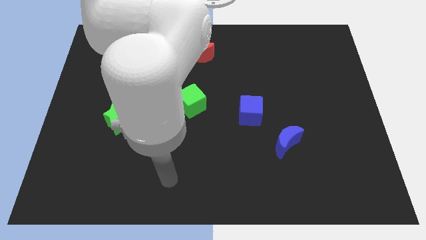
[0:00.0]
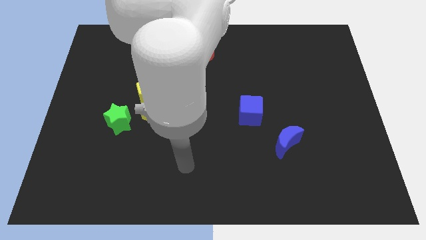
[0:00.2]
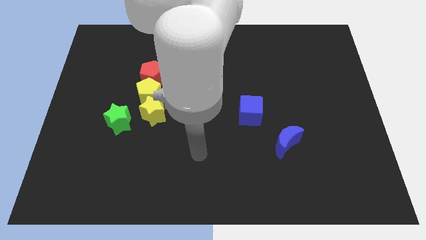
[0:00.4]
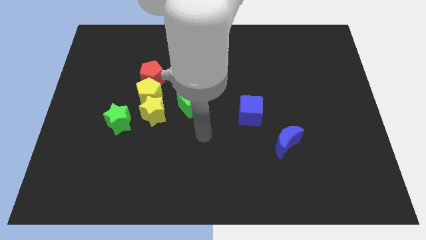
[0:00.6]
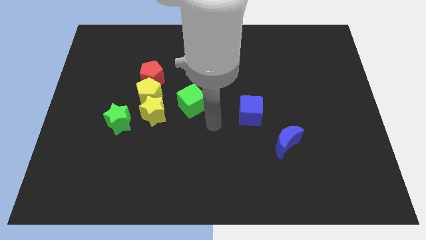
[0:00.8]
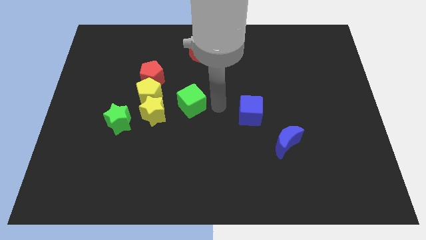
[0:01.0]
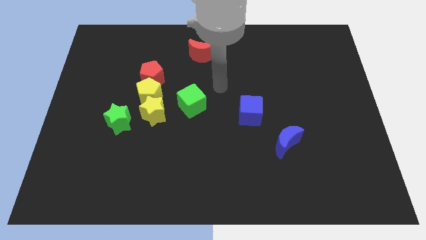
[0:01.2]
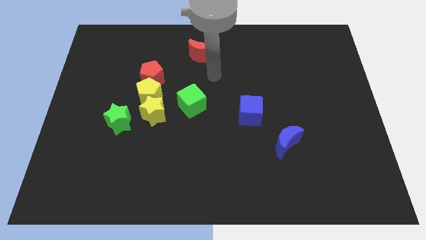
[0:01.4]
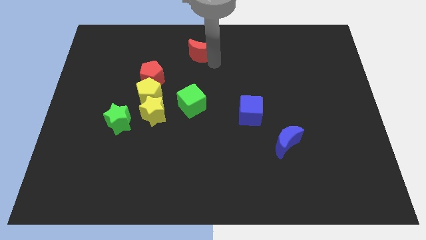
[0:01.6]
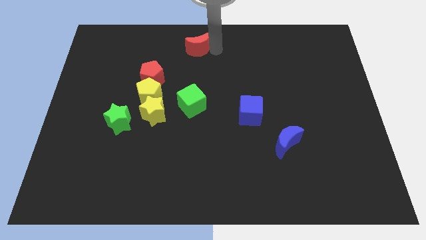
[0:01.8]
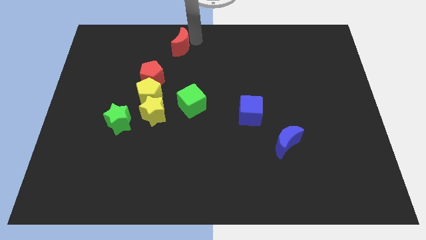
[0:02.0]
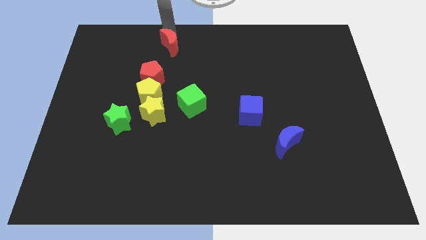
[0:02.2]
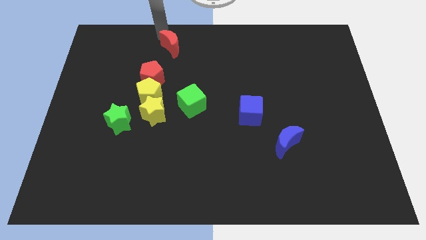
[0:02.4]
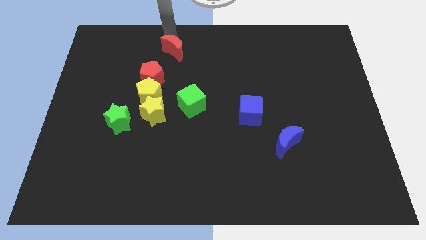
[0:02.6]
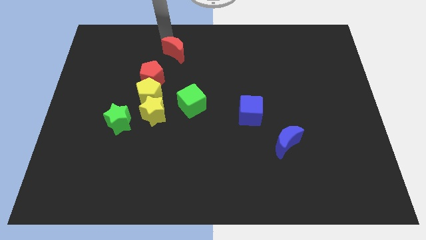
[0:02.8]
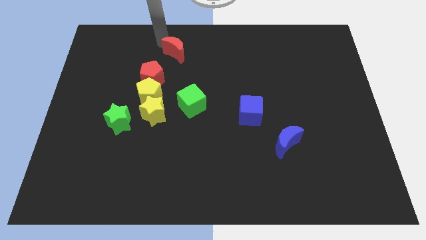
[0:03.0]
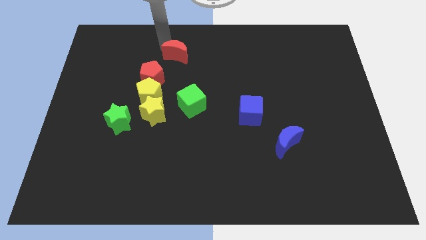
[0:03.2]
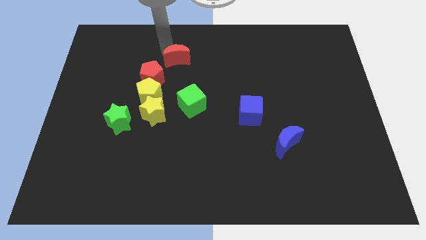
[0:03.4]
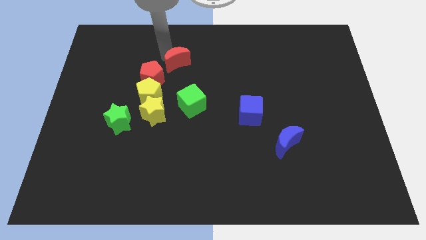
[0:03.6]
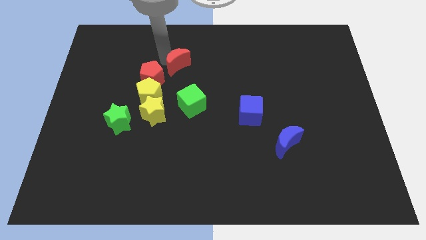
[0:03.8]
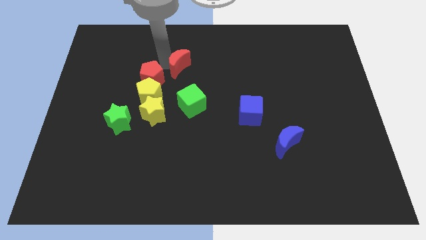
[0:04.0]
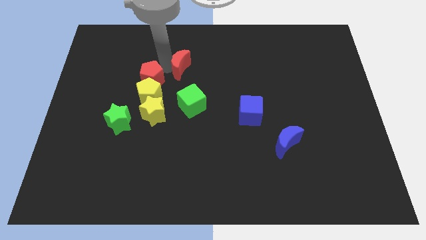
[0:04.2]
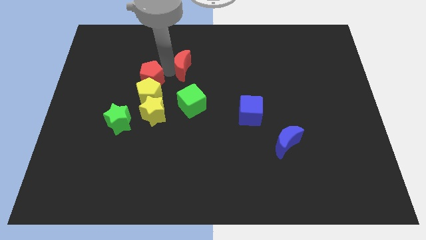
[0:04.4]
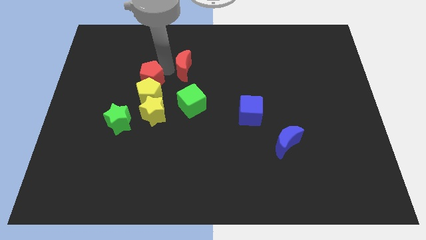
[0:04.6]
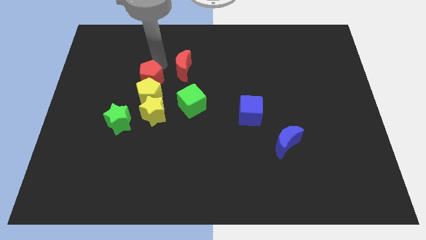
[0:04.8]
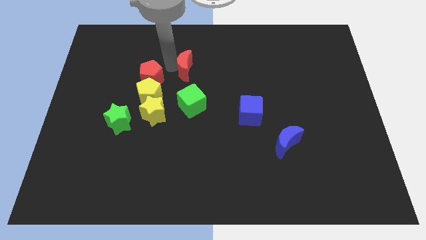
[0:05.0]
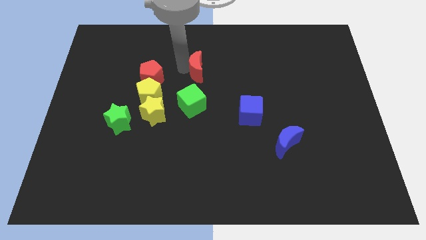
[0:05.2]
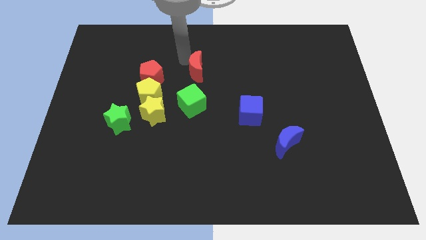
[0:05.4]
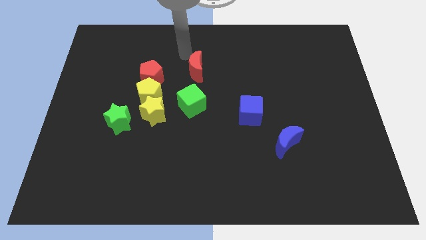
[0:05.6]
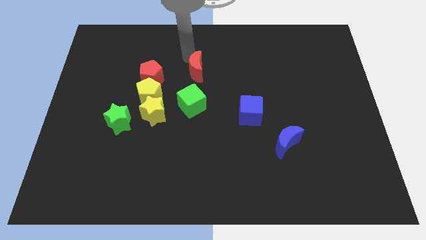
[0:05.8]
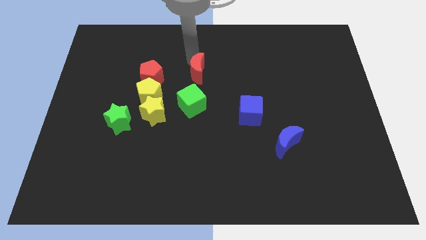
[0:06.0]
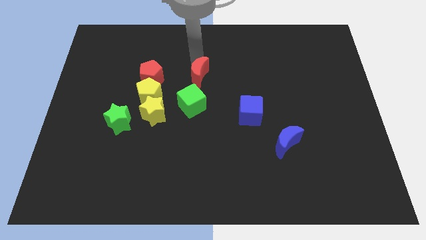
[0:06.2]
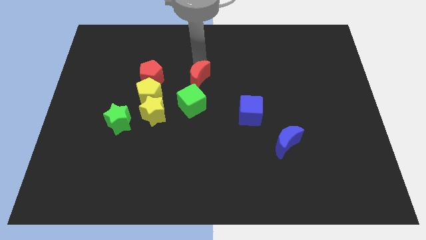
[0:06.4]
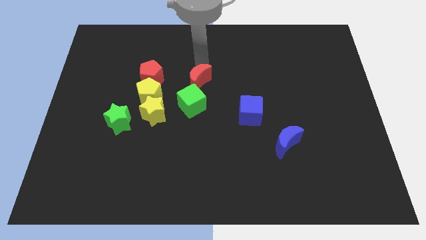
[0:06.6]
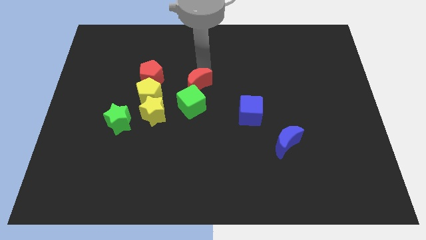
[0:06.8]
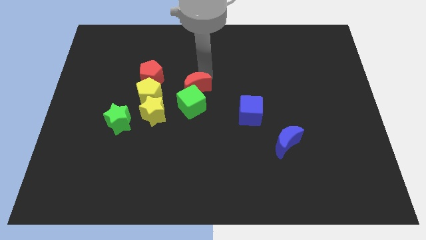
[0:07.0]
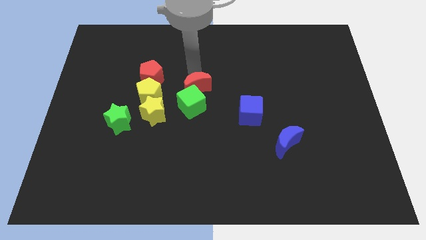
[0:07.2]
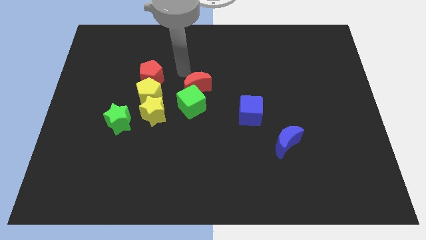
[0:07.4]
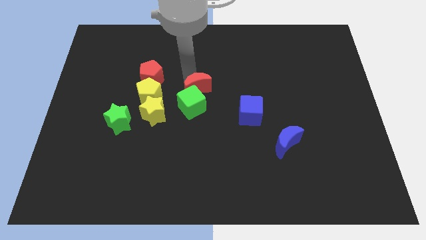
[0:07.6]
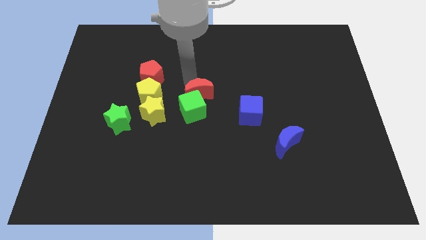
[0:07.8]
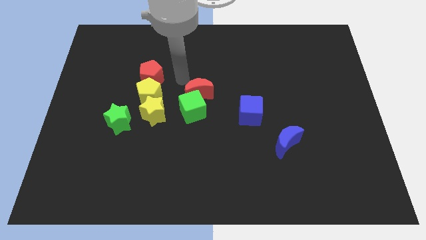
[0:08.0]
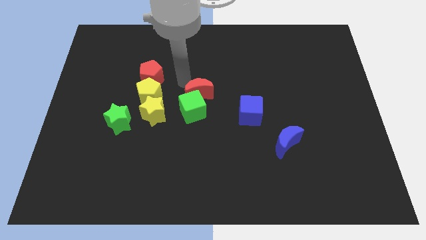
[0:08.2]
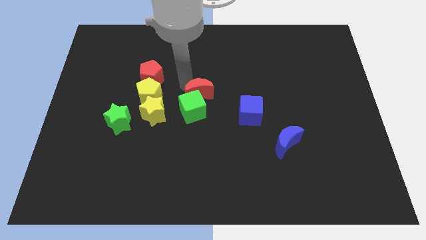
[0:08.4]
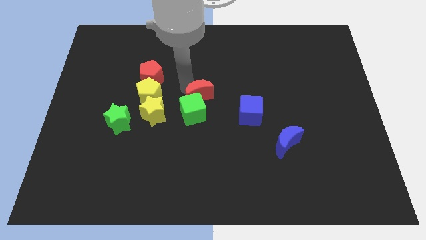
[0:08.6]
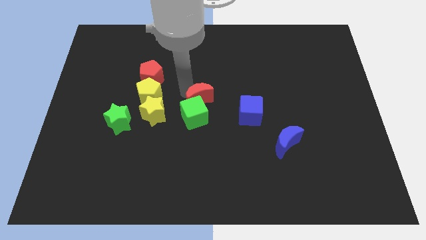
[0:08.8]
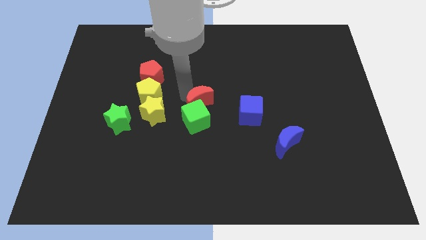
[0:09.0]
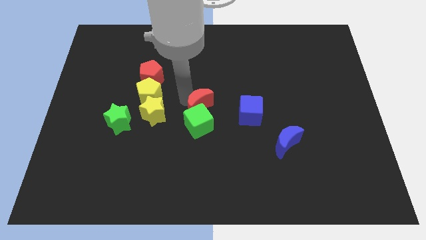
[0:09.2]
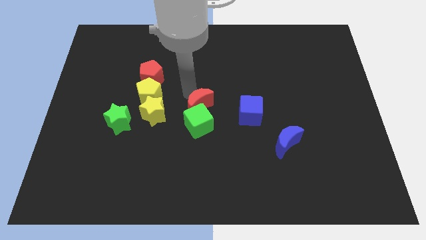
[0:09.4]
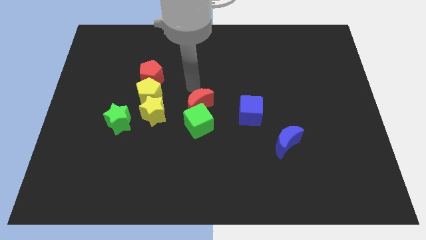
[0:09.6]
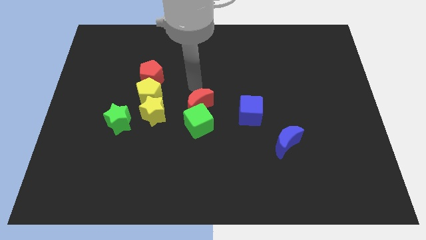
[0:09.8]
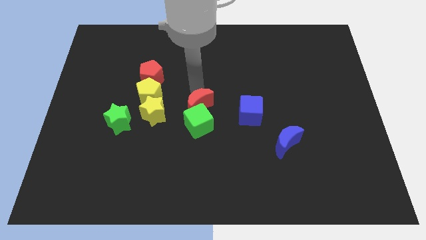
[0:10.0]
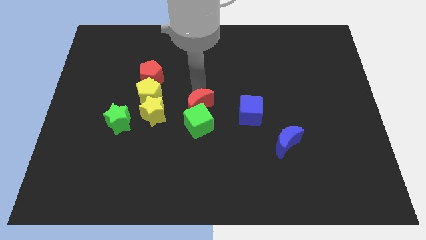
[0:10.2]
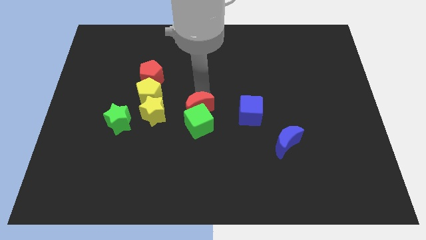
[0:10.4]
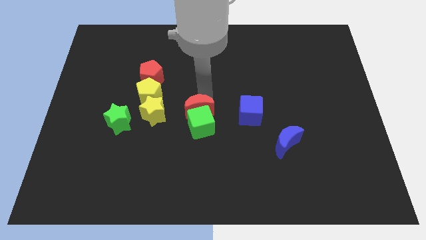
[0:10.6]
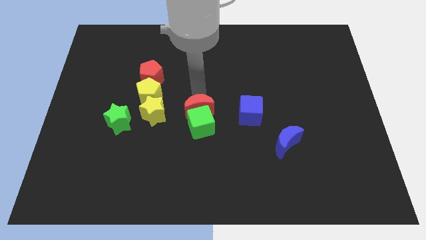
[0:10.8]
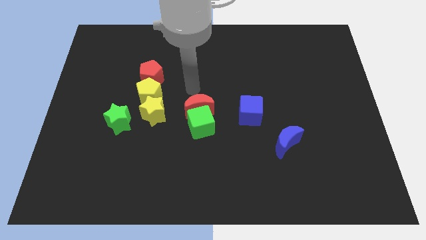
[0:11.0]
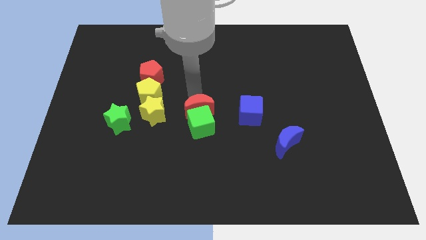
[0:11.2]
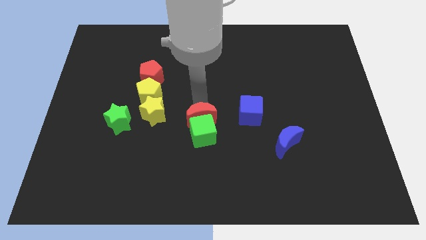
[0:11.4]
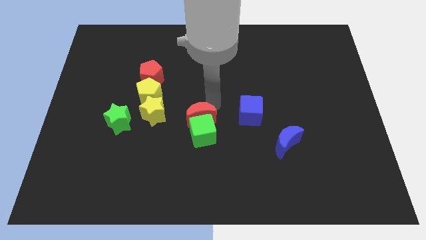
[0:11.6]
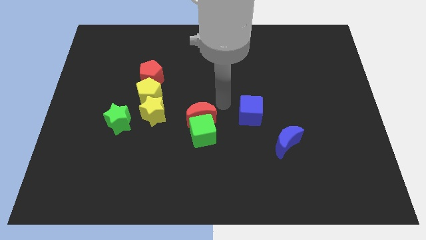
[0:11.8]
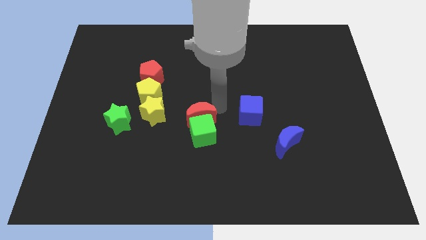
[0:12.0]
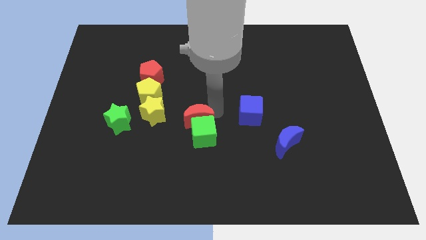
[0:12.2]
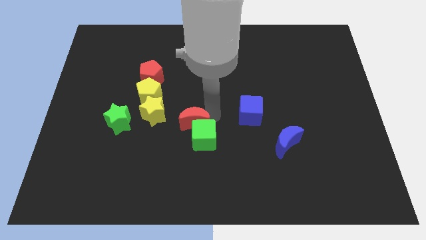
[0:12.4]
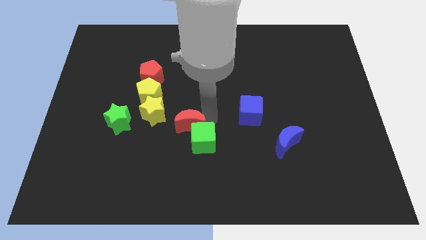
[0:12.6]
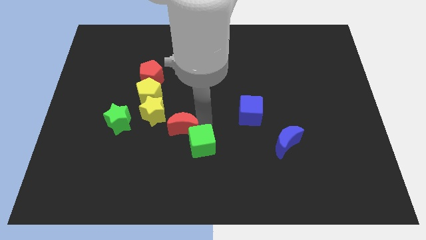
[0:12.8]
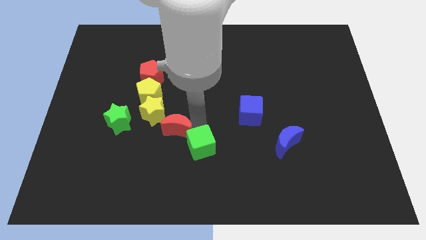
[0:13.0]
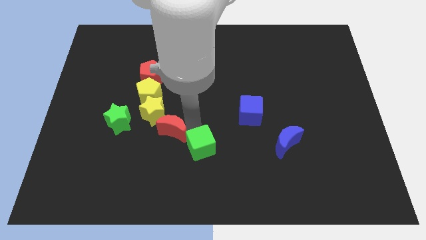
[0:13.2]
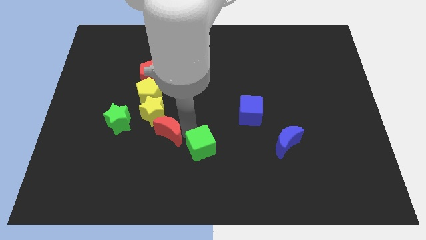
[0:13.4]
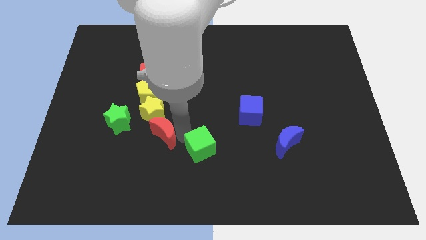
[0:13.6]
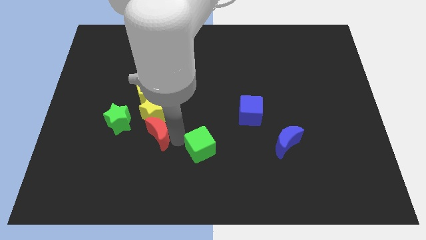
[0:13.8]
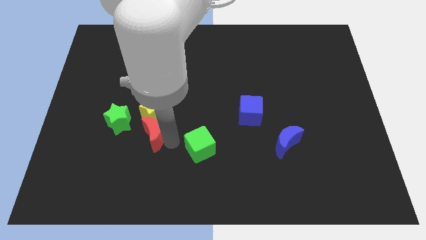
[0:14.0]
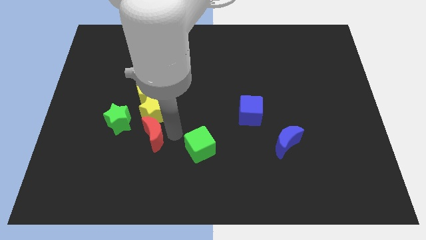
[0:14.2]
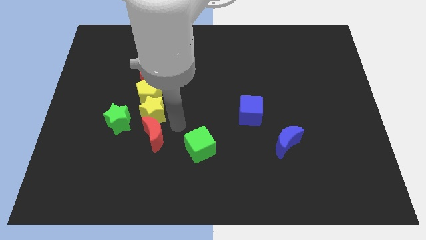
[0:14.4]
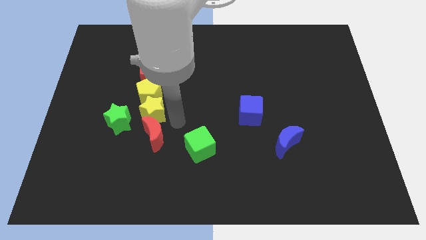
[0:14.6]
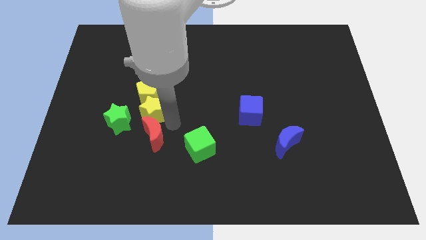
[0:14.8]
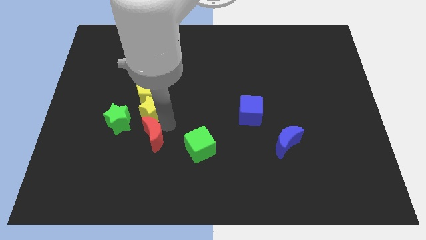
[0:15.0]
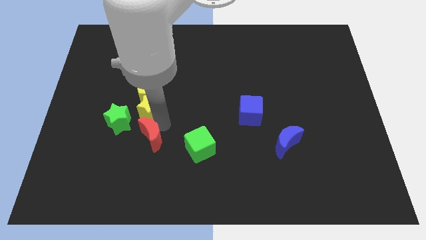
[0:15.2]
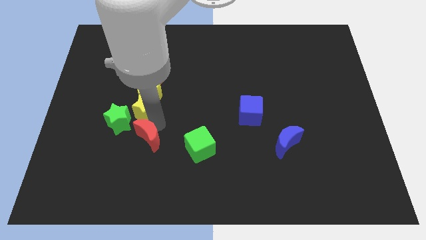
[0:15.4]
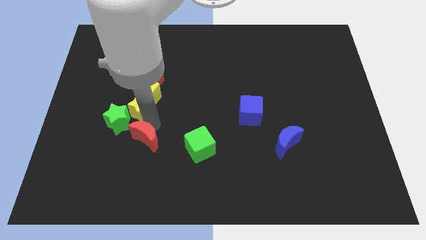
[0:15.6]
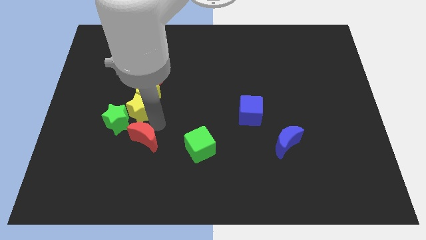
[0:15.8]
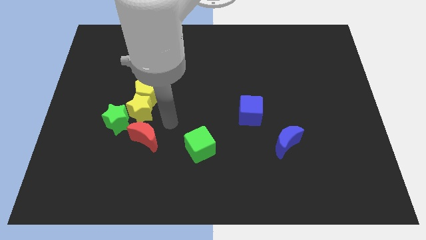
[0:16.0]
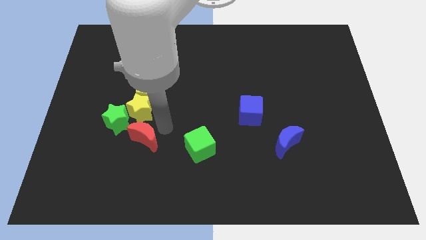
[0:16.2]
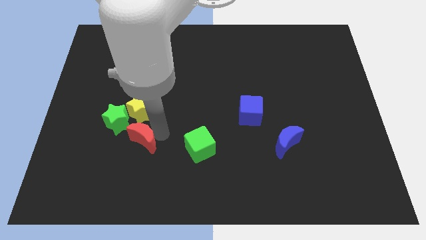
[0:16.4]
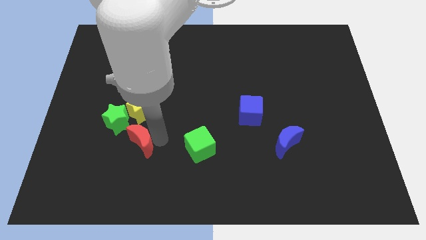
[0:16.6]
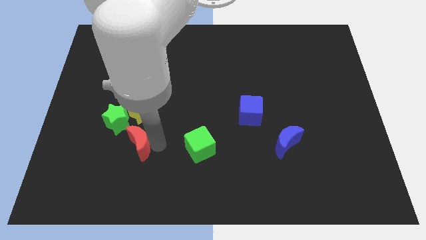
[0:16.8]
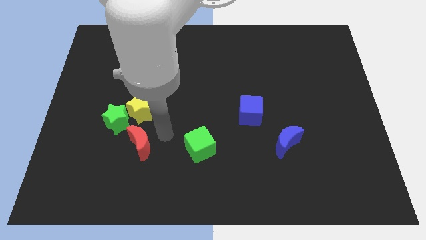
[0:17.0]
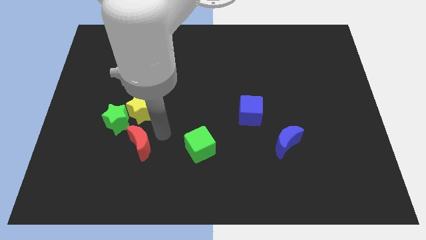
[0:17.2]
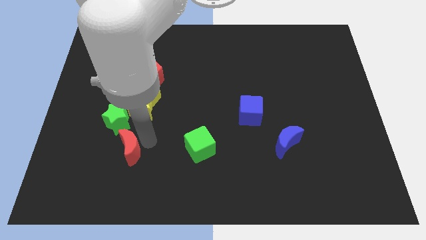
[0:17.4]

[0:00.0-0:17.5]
push the red moon to the bottom side of the green star
